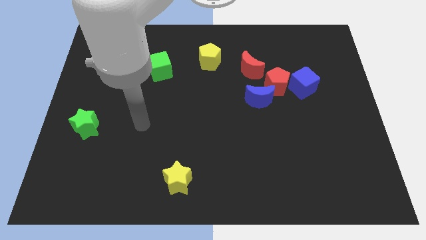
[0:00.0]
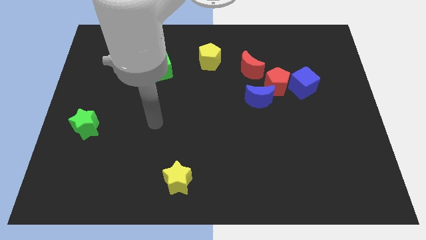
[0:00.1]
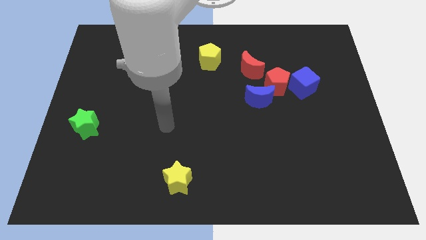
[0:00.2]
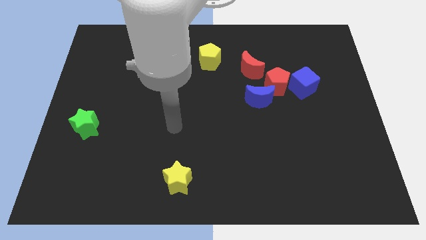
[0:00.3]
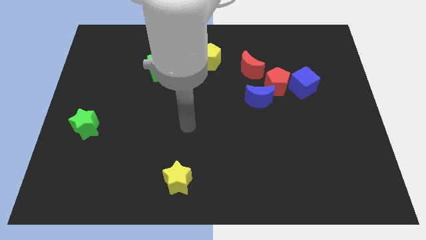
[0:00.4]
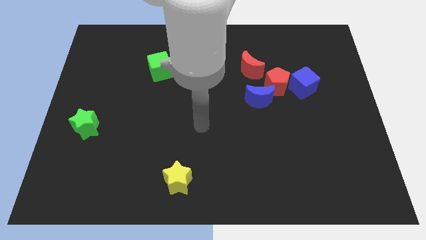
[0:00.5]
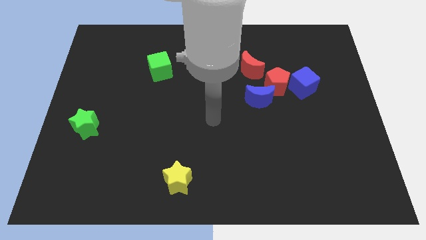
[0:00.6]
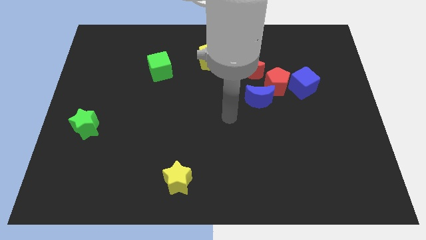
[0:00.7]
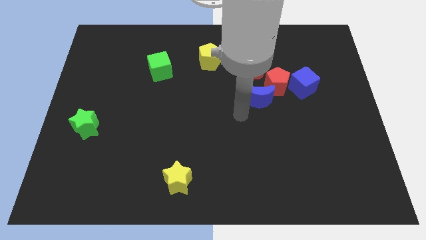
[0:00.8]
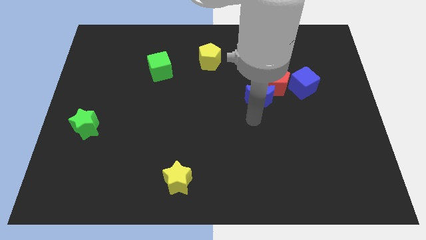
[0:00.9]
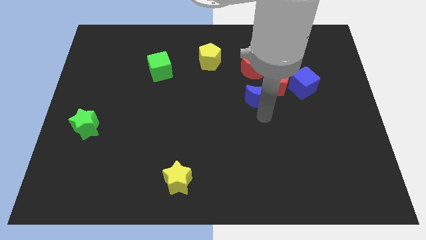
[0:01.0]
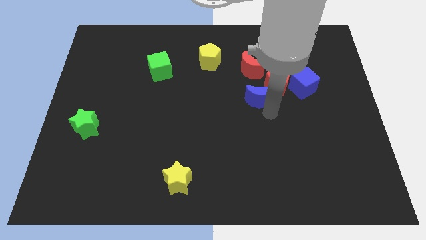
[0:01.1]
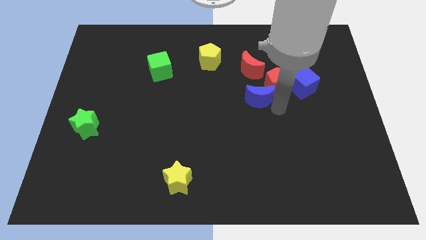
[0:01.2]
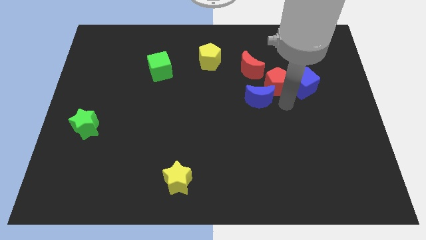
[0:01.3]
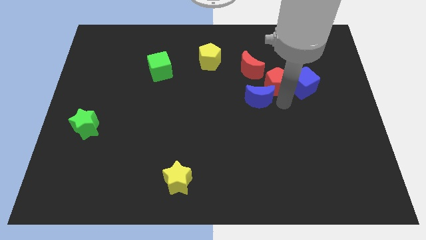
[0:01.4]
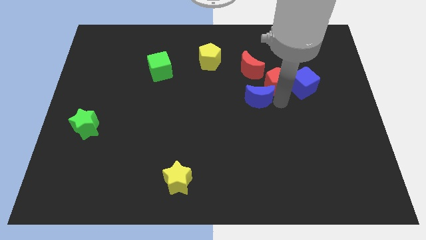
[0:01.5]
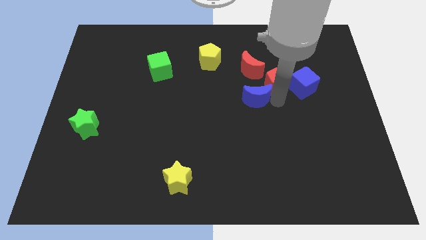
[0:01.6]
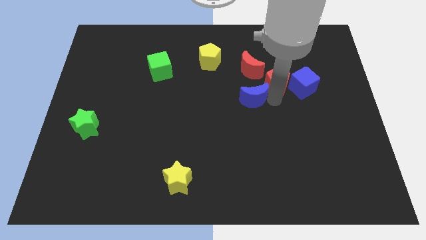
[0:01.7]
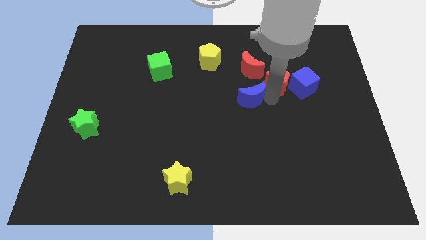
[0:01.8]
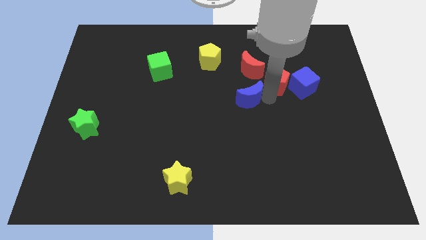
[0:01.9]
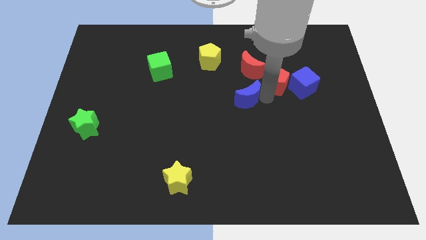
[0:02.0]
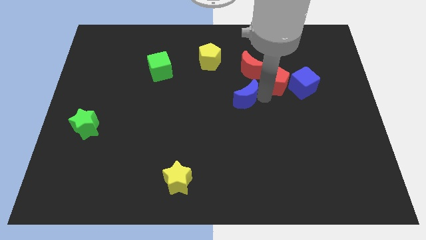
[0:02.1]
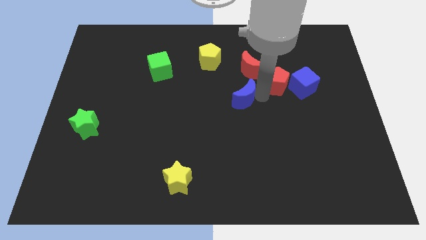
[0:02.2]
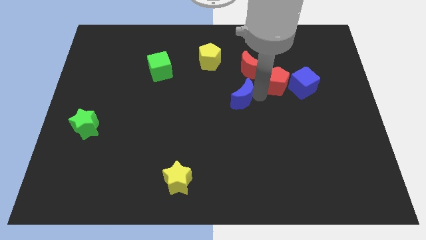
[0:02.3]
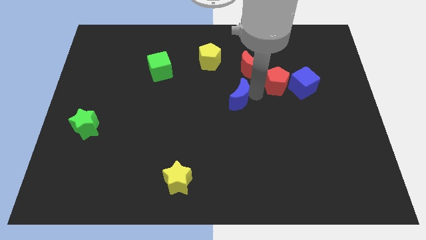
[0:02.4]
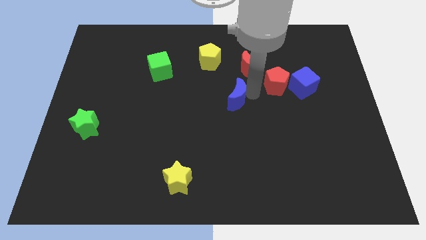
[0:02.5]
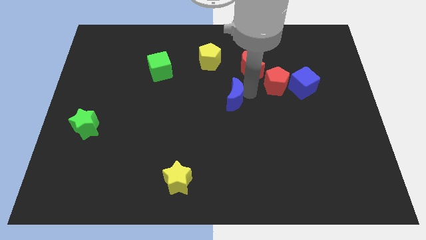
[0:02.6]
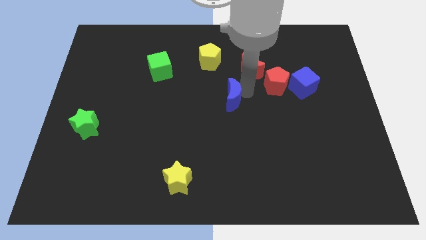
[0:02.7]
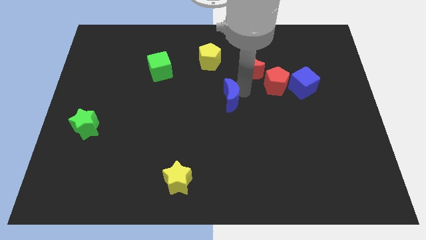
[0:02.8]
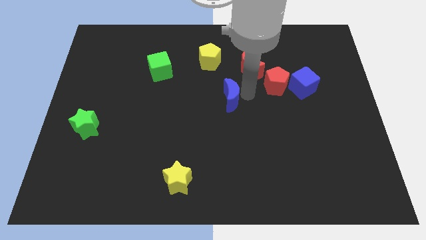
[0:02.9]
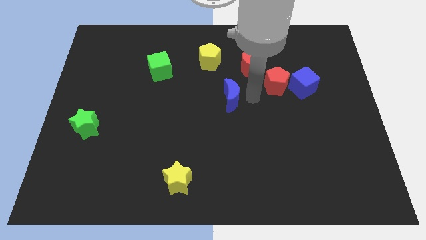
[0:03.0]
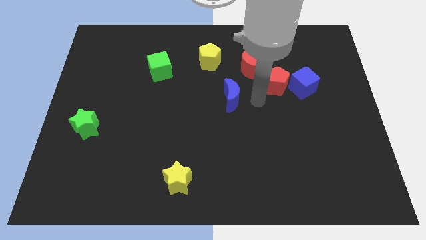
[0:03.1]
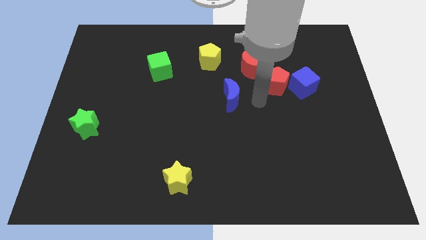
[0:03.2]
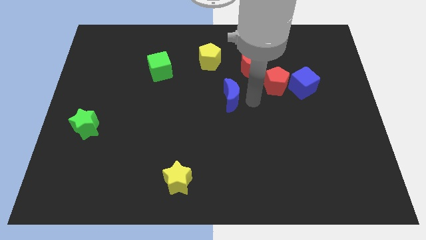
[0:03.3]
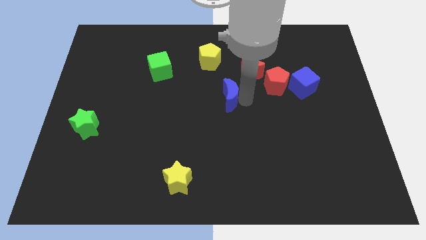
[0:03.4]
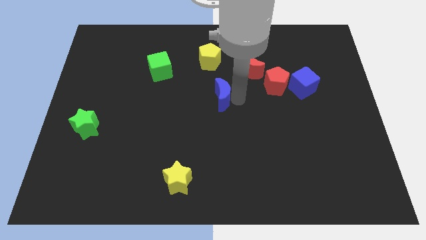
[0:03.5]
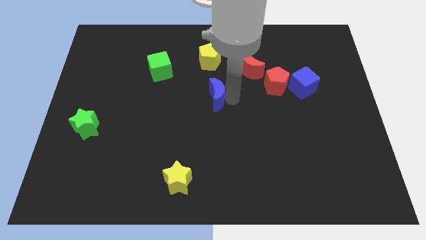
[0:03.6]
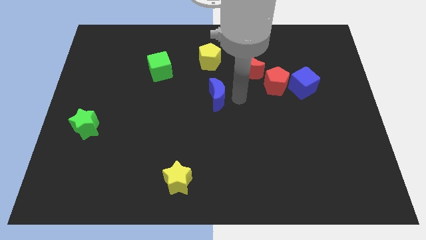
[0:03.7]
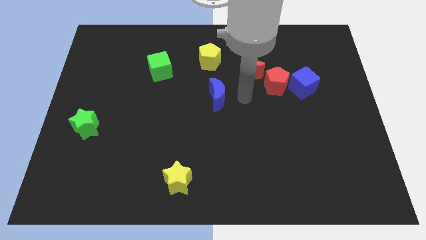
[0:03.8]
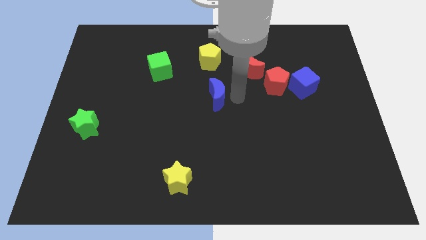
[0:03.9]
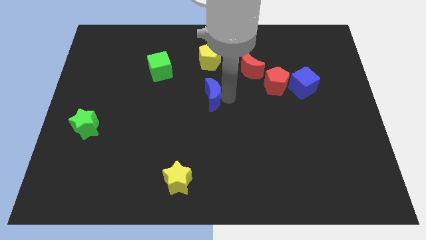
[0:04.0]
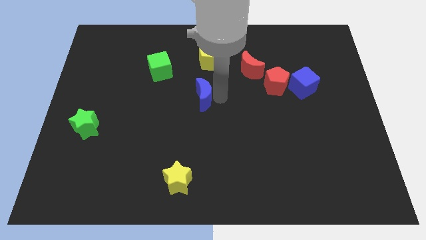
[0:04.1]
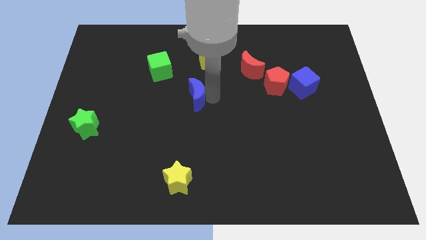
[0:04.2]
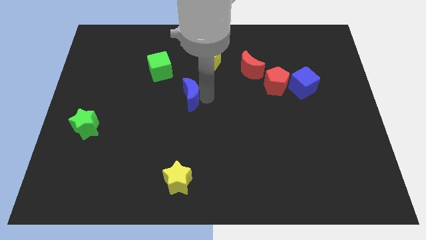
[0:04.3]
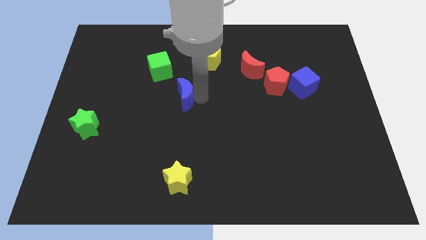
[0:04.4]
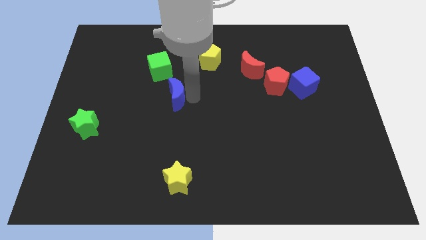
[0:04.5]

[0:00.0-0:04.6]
slide the blue moon to the left

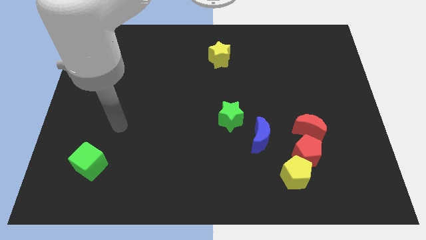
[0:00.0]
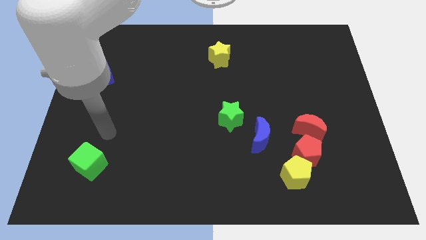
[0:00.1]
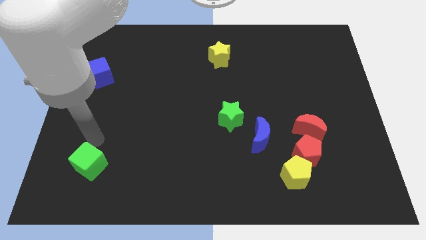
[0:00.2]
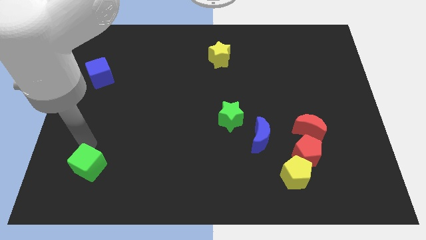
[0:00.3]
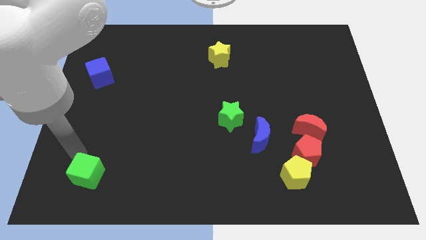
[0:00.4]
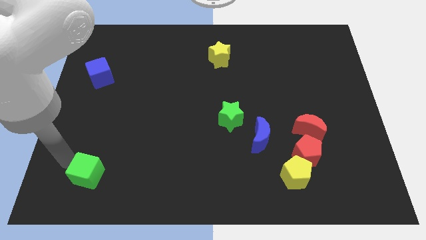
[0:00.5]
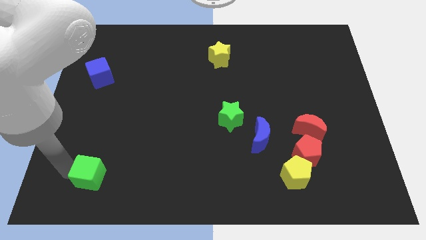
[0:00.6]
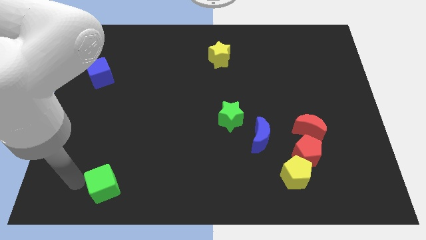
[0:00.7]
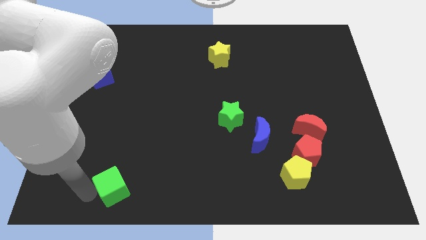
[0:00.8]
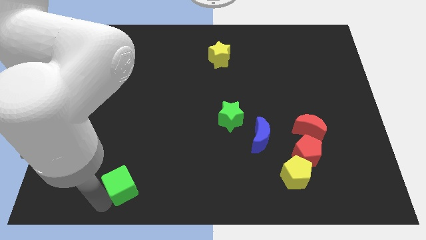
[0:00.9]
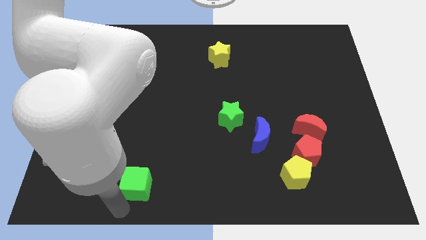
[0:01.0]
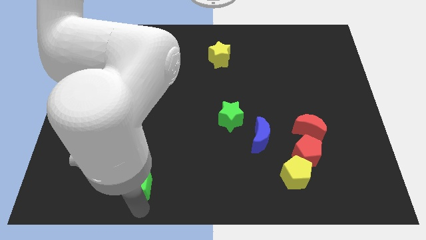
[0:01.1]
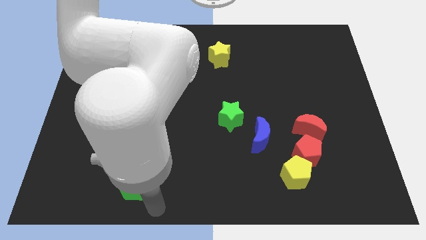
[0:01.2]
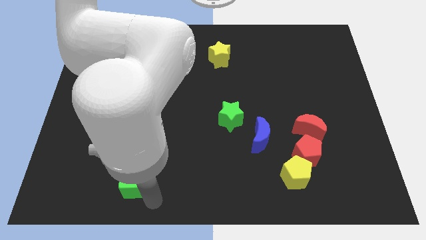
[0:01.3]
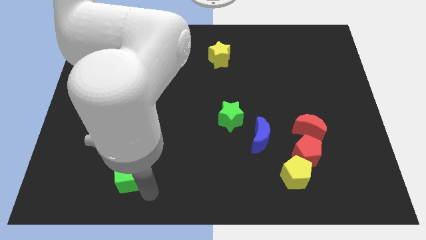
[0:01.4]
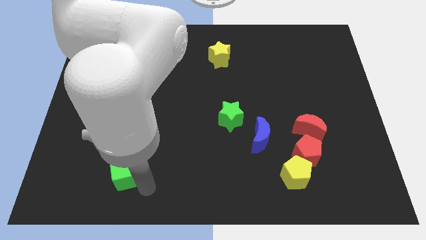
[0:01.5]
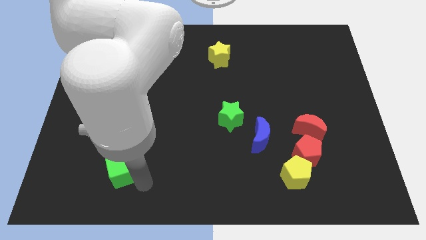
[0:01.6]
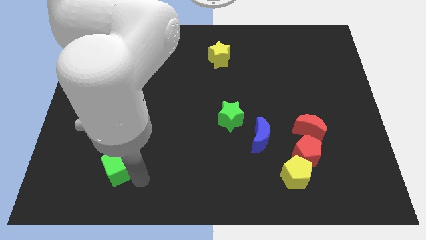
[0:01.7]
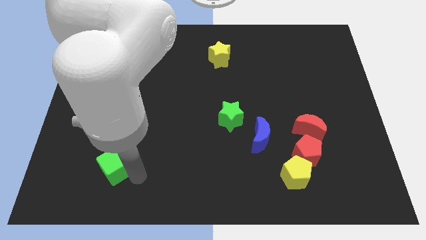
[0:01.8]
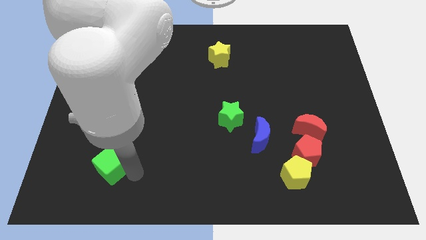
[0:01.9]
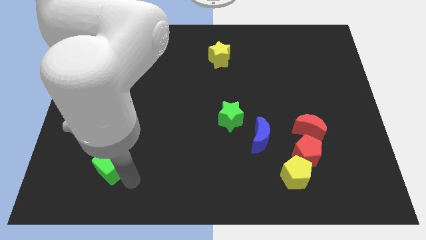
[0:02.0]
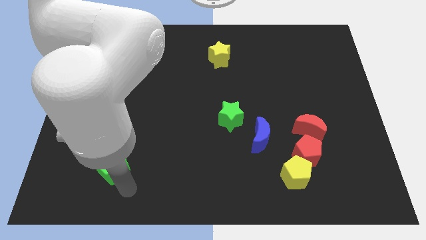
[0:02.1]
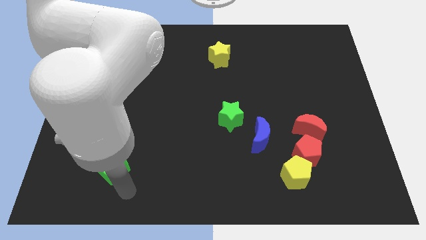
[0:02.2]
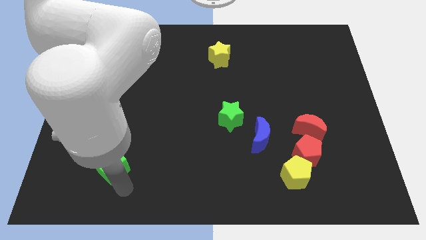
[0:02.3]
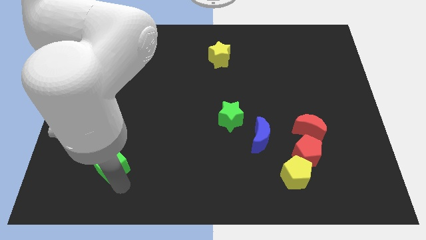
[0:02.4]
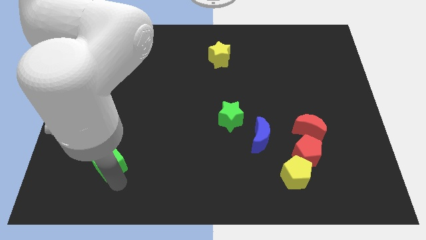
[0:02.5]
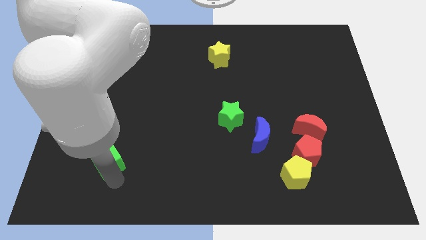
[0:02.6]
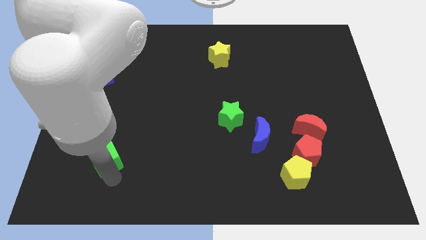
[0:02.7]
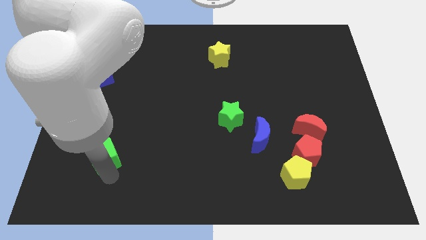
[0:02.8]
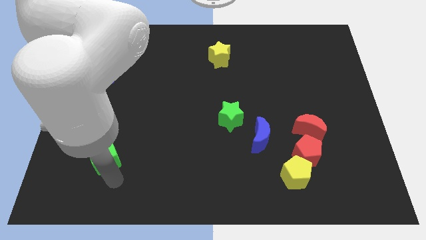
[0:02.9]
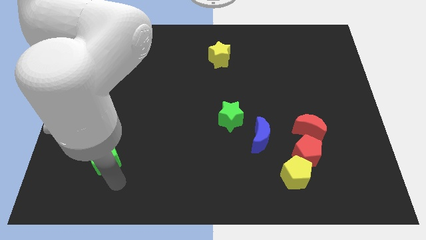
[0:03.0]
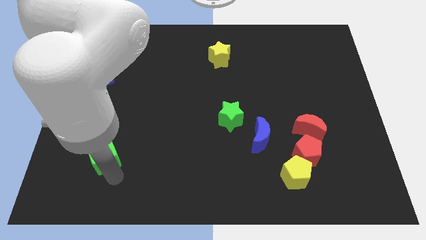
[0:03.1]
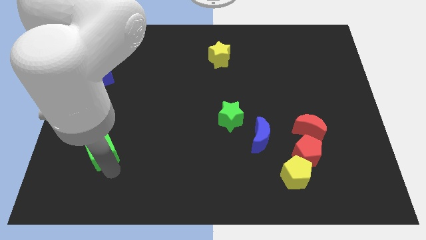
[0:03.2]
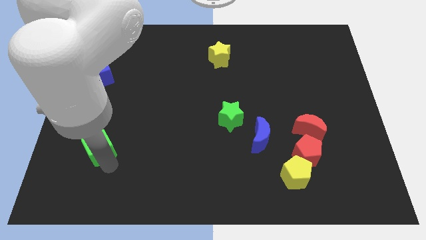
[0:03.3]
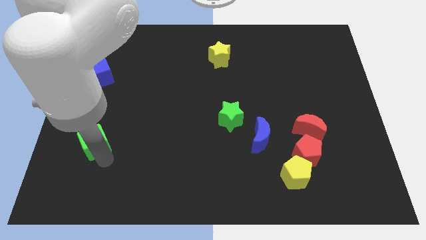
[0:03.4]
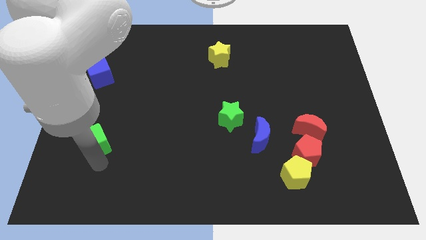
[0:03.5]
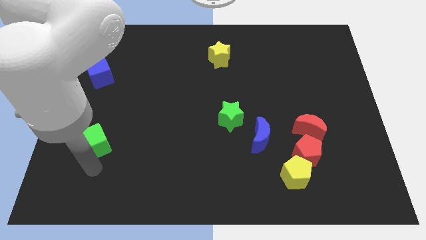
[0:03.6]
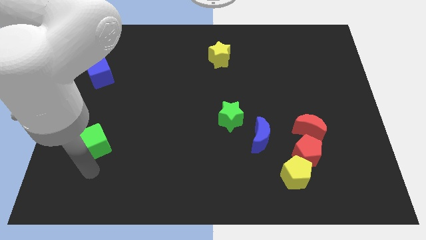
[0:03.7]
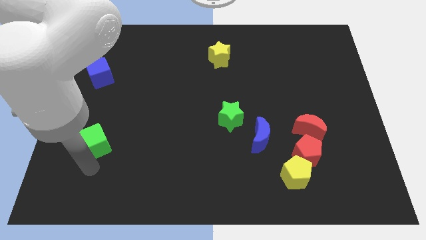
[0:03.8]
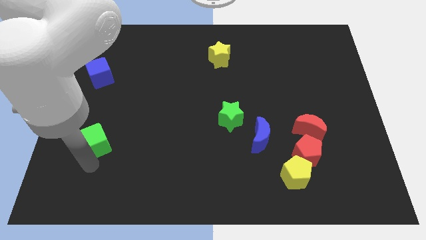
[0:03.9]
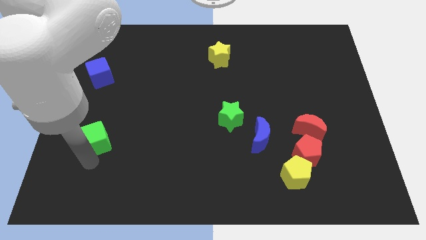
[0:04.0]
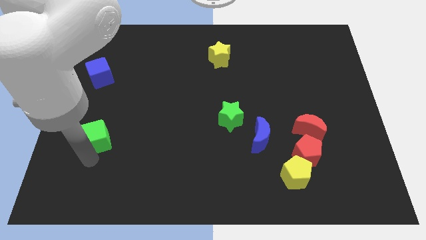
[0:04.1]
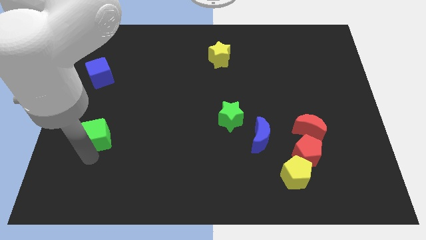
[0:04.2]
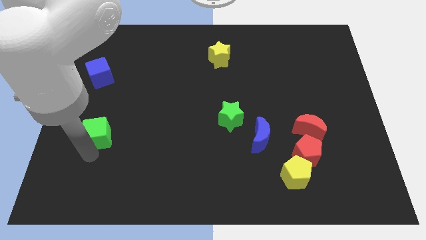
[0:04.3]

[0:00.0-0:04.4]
move the green cube up somewhat
